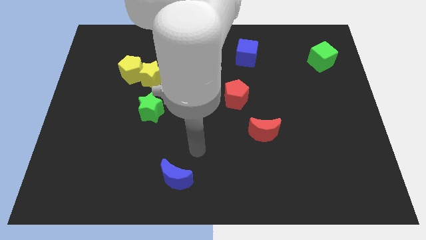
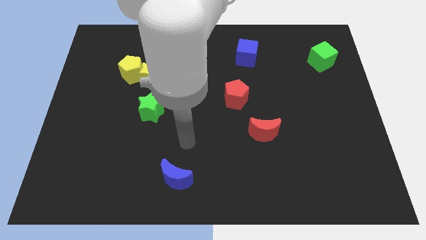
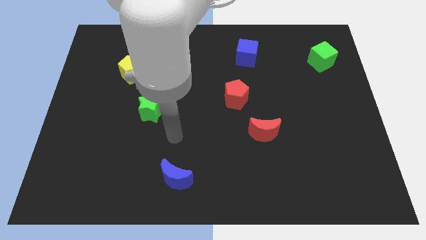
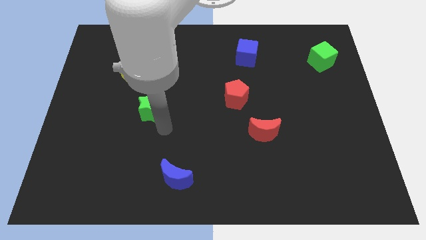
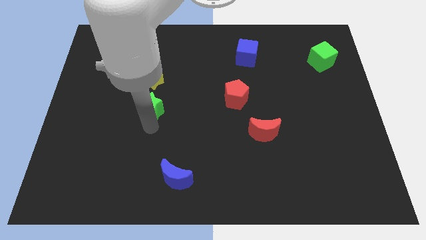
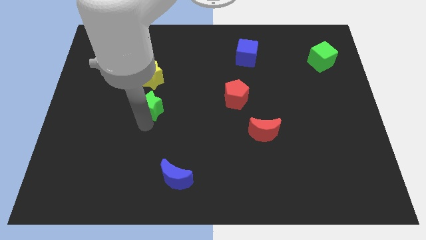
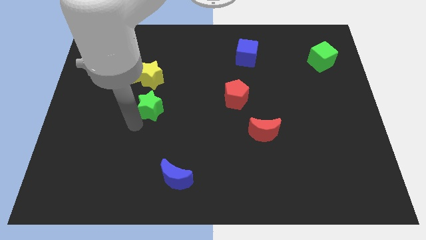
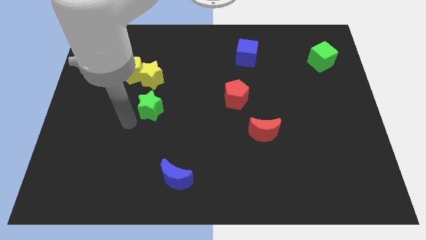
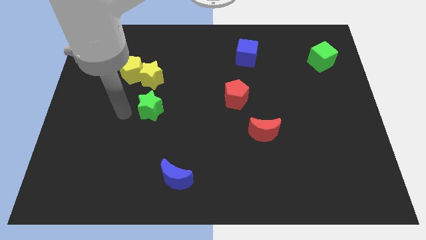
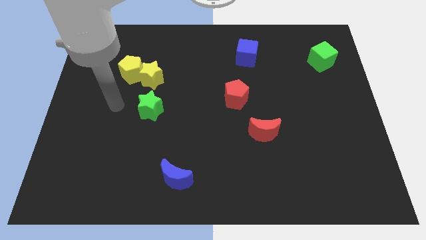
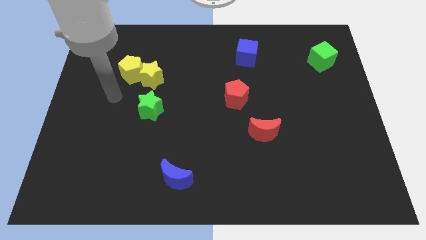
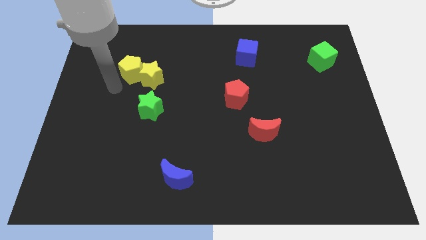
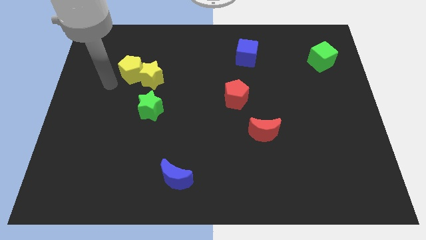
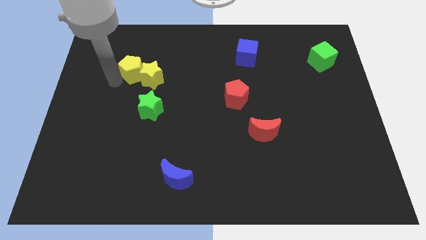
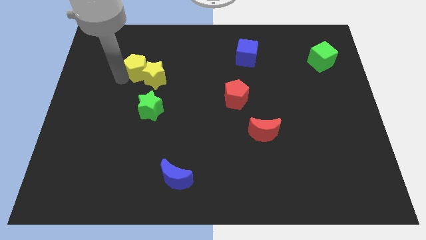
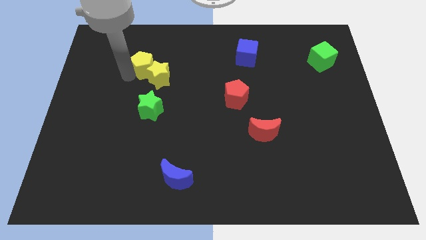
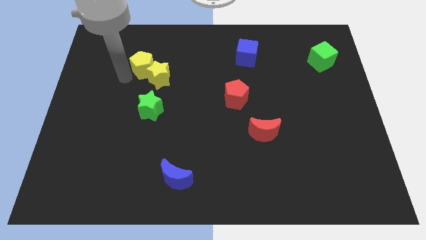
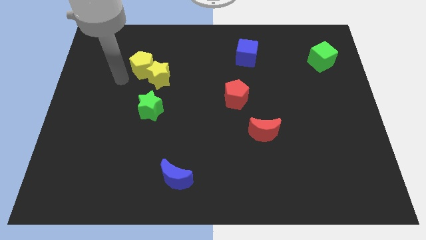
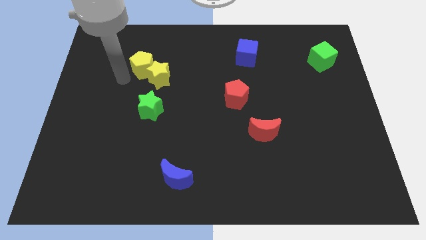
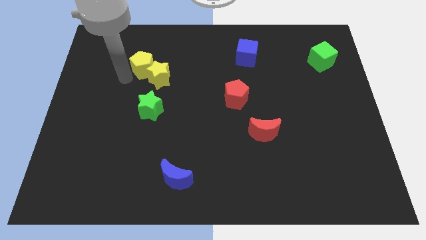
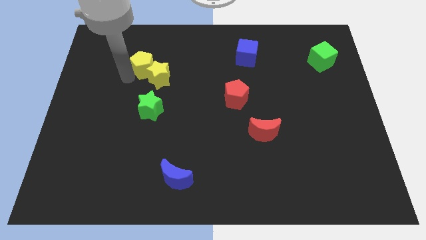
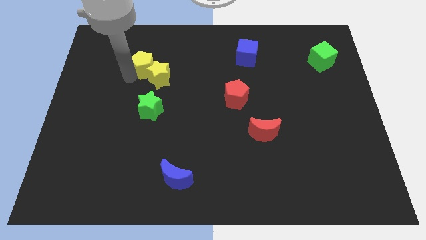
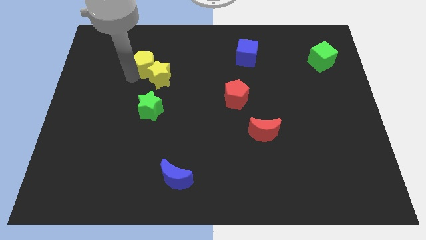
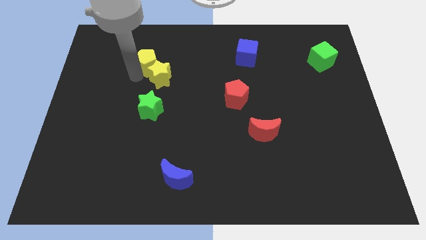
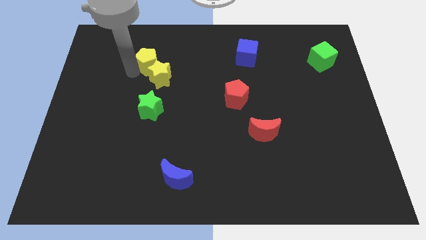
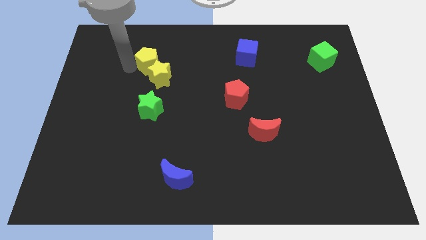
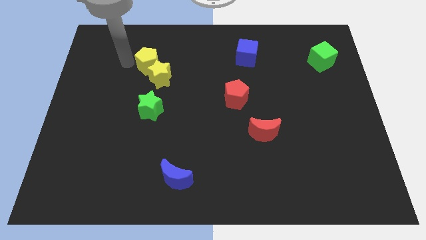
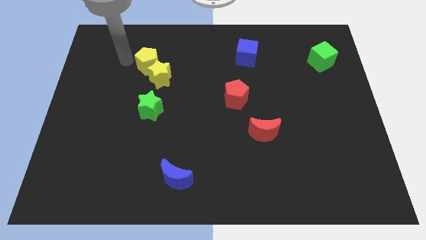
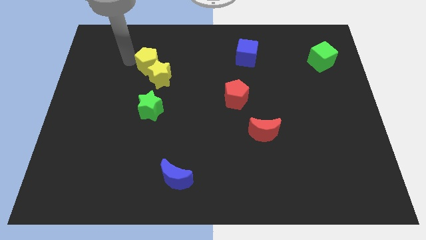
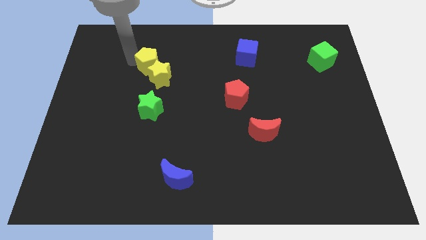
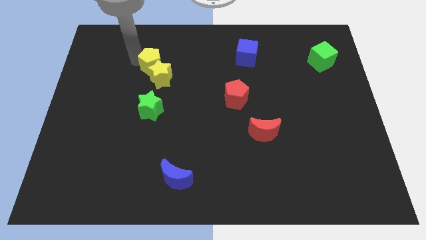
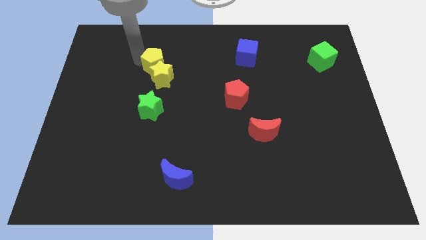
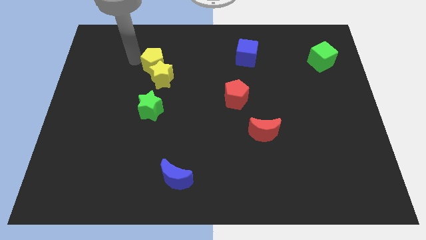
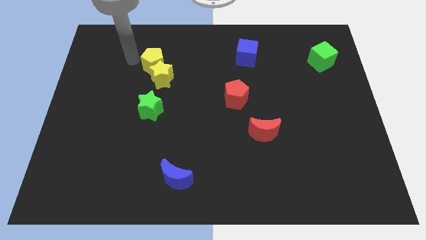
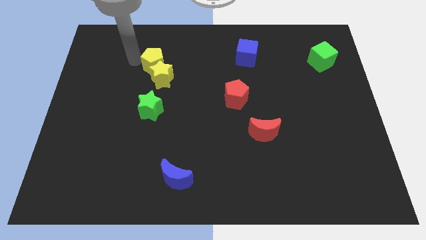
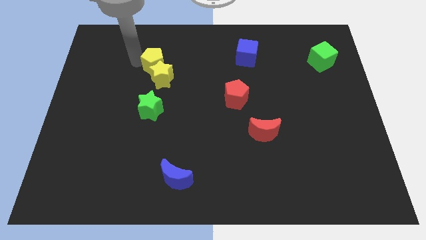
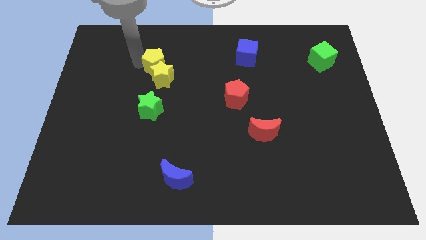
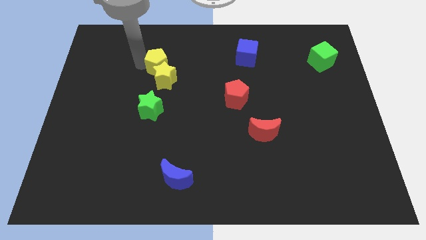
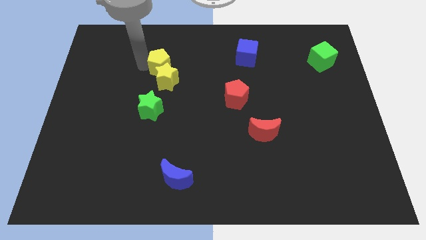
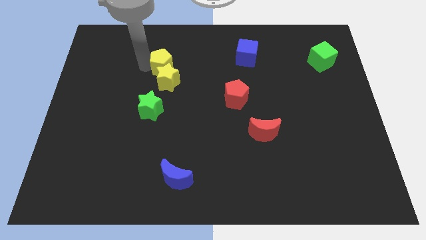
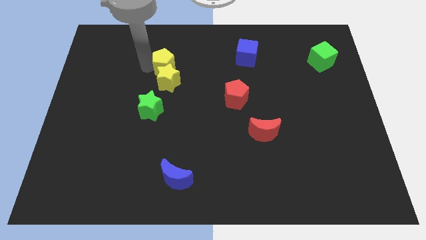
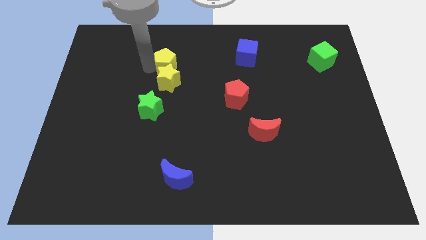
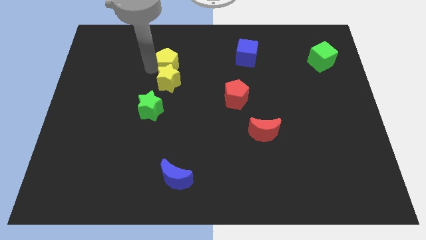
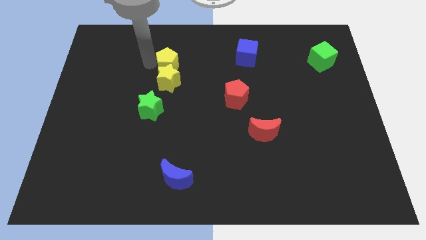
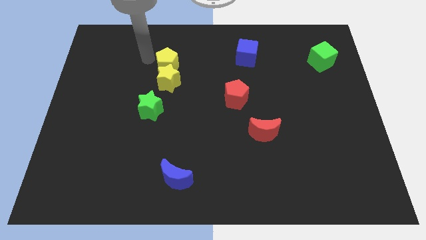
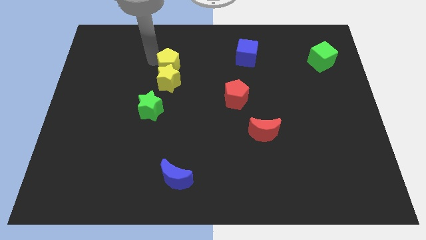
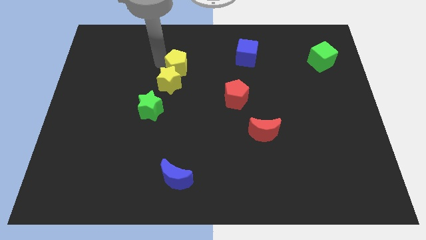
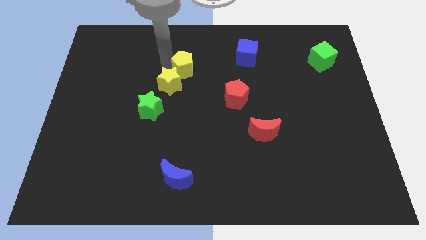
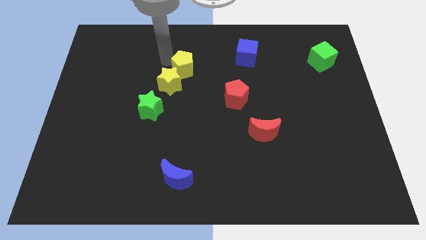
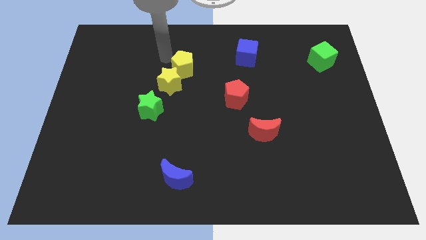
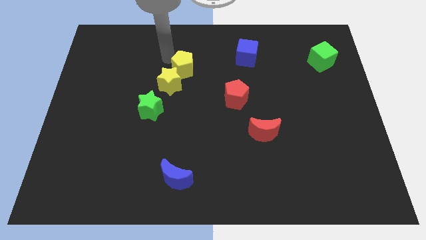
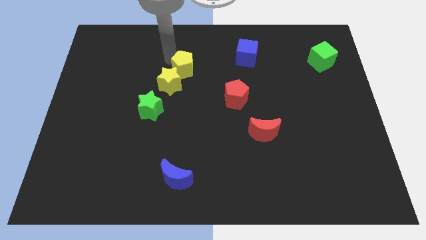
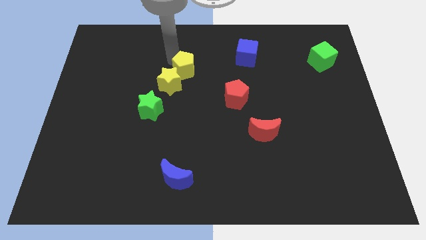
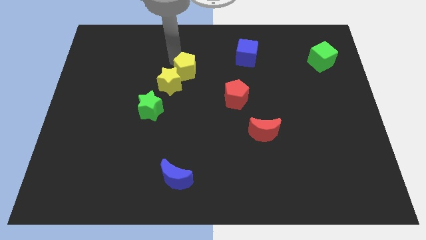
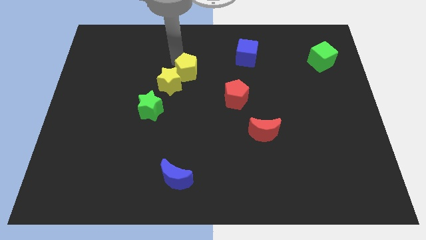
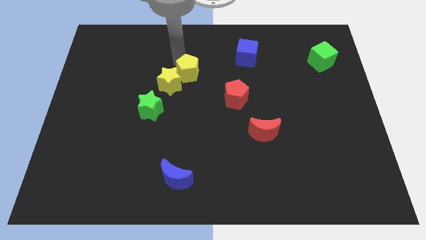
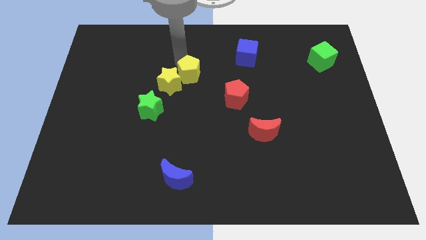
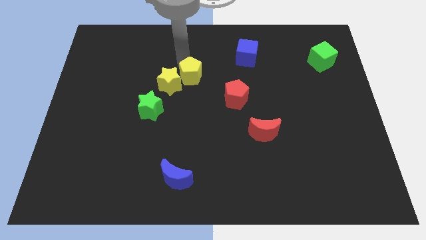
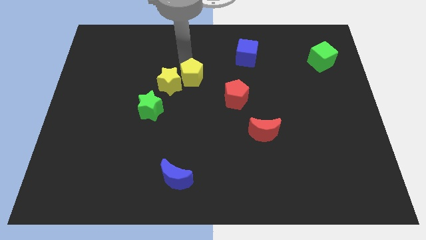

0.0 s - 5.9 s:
put the yellow pentagon to the top left of the red pentagon
